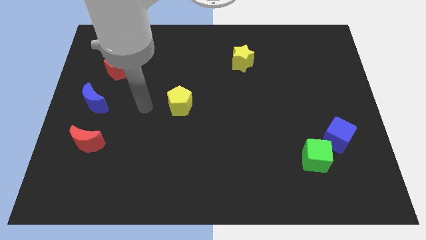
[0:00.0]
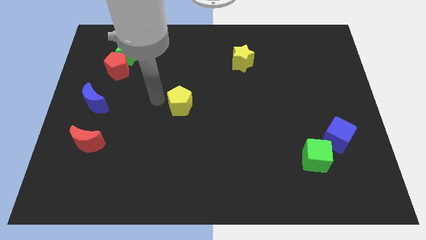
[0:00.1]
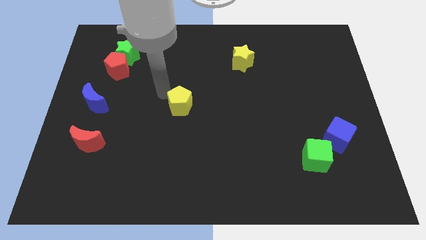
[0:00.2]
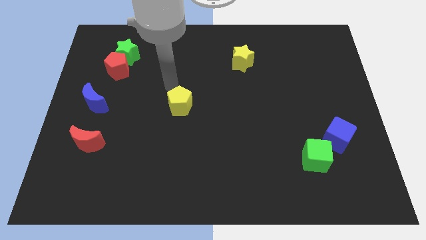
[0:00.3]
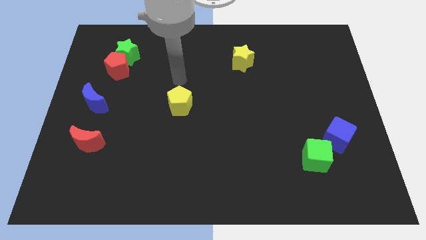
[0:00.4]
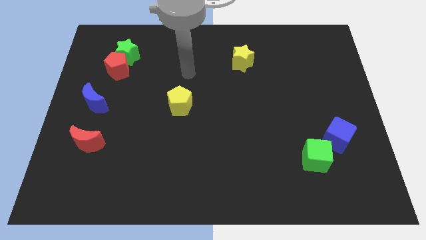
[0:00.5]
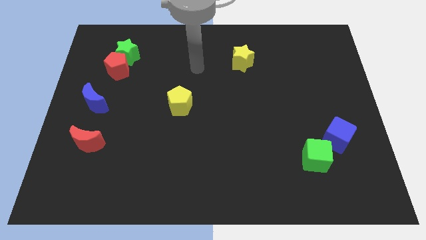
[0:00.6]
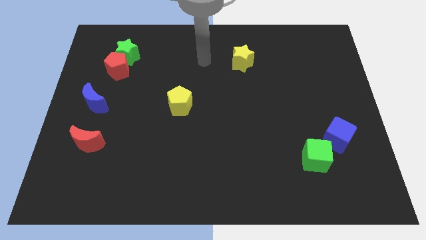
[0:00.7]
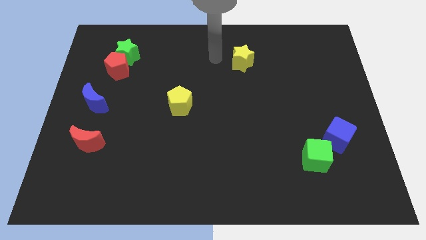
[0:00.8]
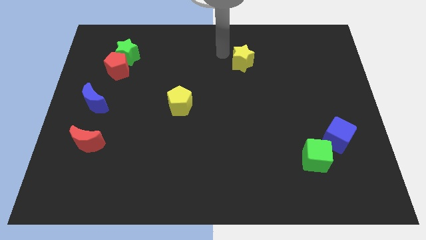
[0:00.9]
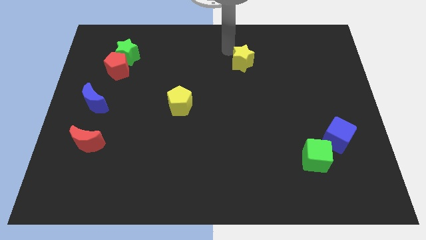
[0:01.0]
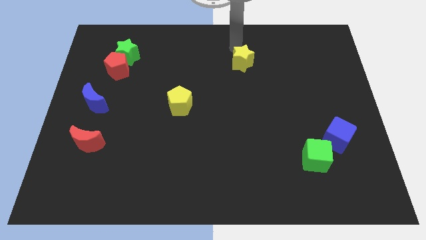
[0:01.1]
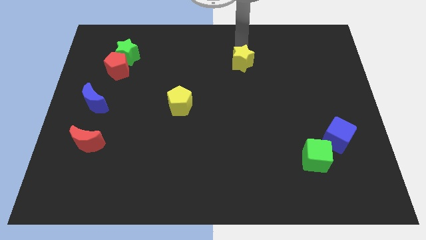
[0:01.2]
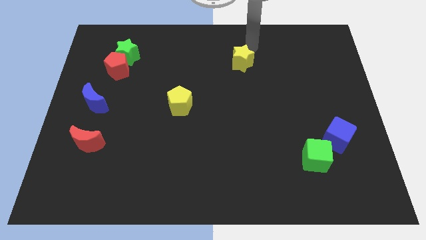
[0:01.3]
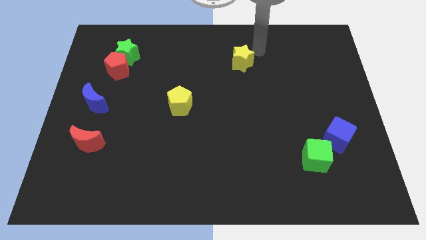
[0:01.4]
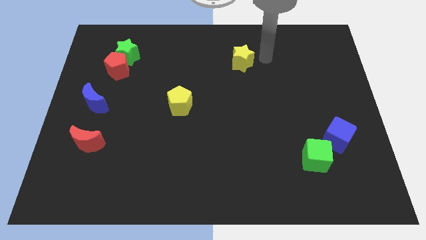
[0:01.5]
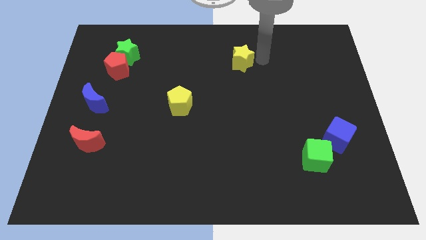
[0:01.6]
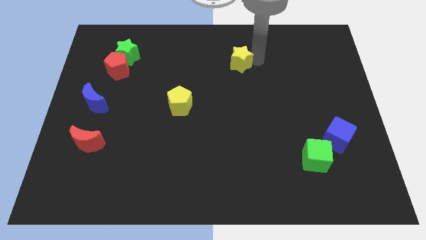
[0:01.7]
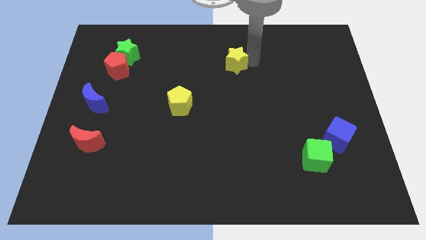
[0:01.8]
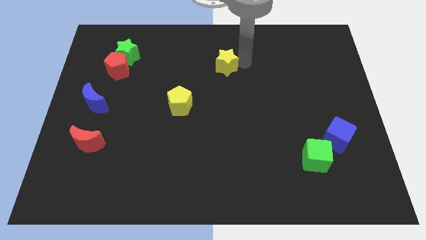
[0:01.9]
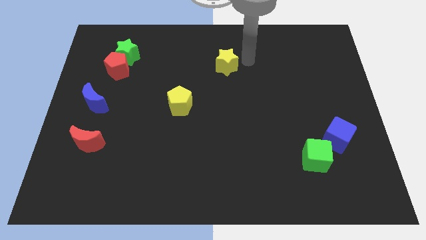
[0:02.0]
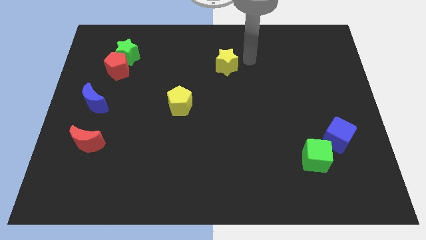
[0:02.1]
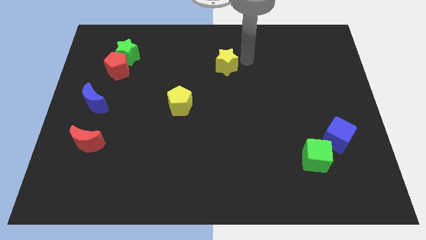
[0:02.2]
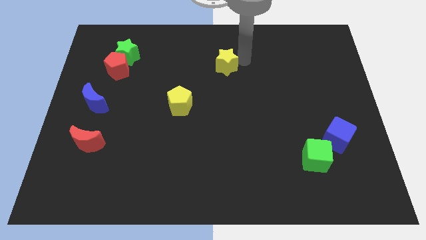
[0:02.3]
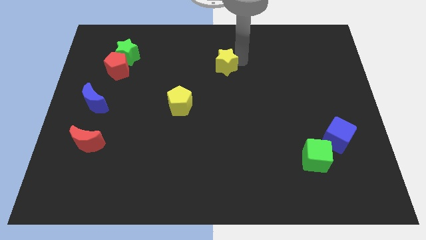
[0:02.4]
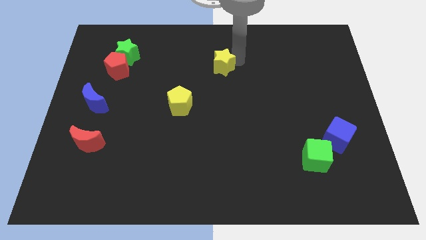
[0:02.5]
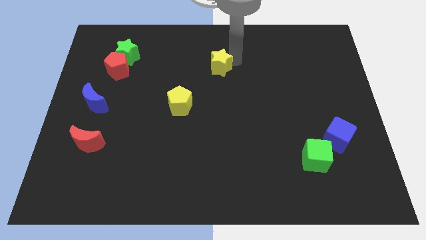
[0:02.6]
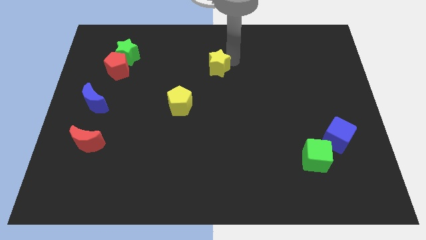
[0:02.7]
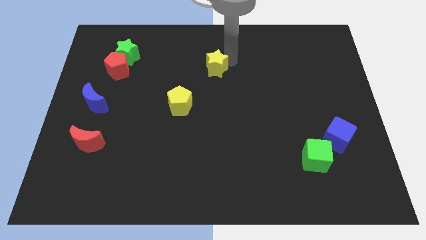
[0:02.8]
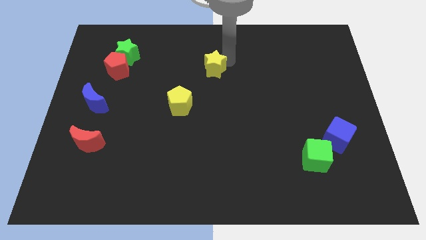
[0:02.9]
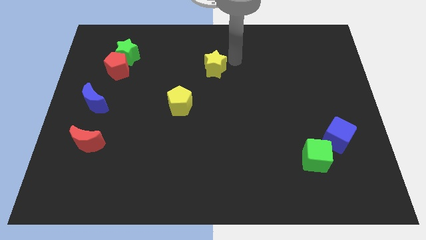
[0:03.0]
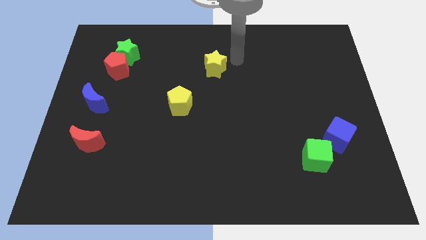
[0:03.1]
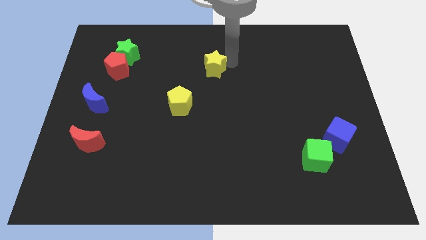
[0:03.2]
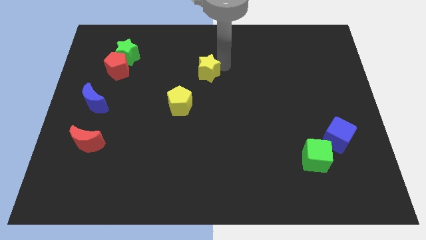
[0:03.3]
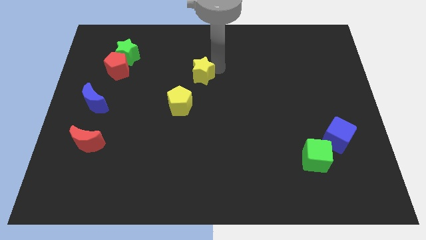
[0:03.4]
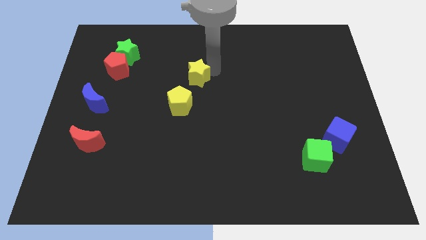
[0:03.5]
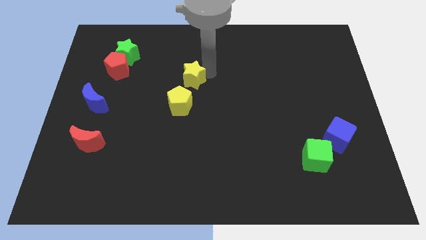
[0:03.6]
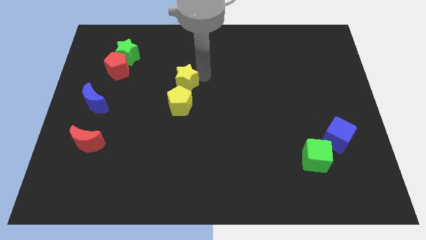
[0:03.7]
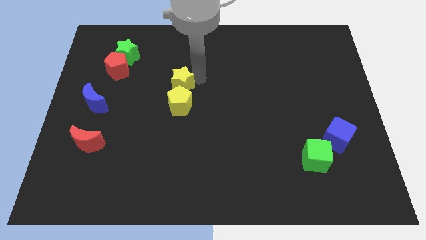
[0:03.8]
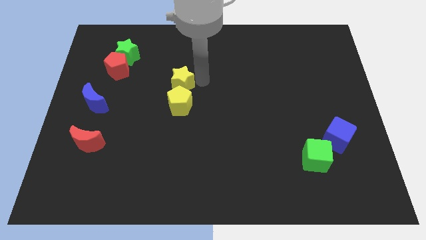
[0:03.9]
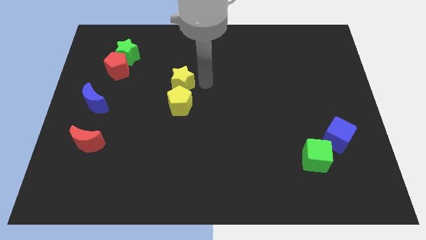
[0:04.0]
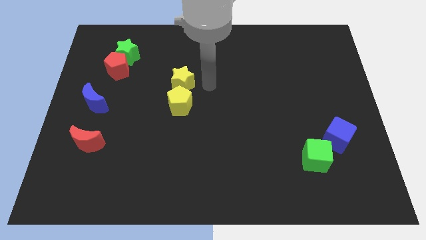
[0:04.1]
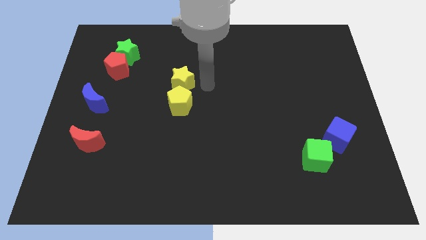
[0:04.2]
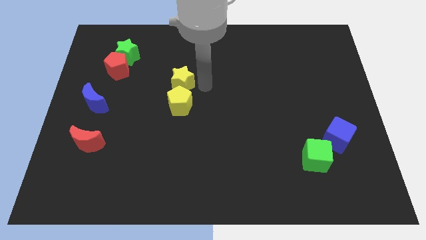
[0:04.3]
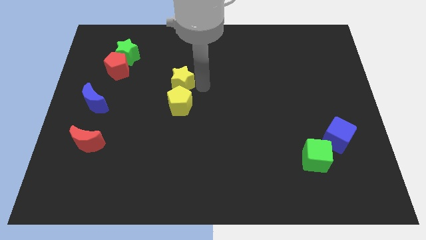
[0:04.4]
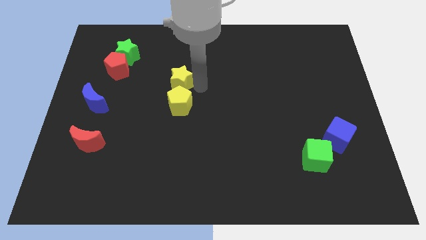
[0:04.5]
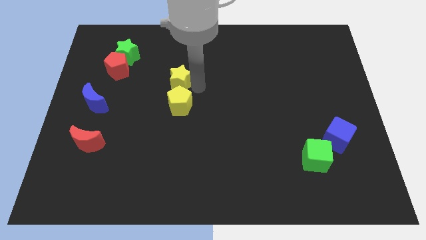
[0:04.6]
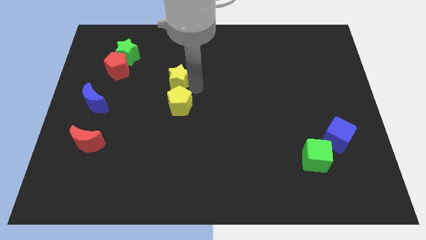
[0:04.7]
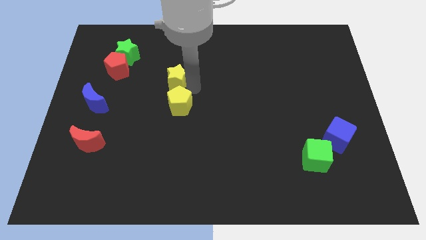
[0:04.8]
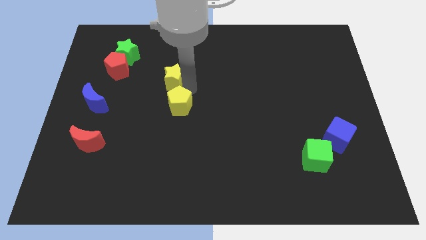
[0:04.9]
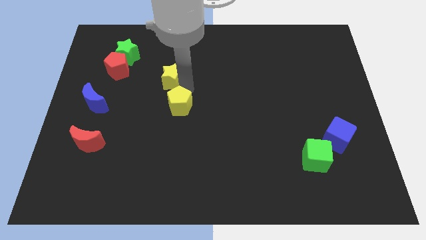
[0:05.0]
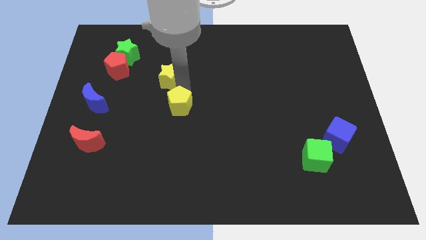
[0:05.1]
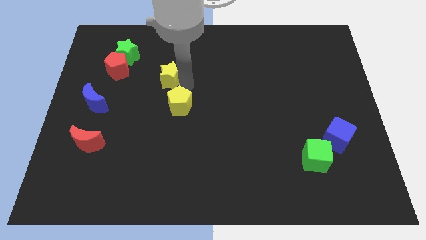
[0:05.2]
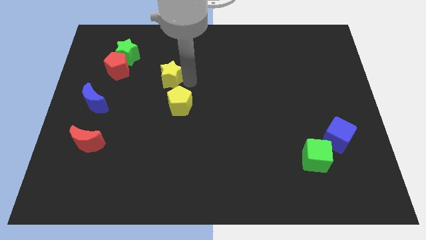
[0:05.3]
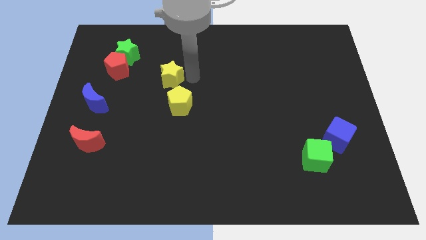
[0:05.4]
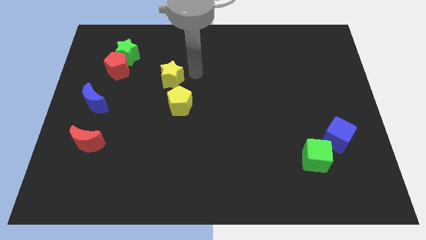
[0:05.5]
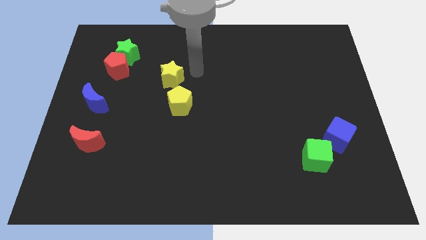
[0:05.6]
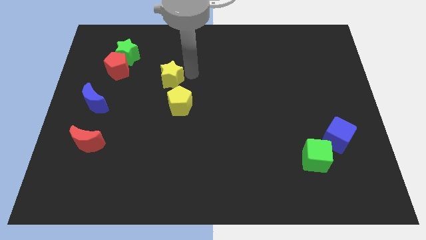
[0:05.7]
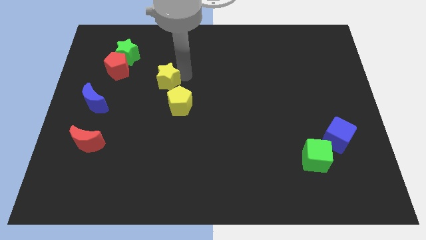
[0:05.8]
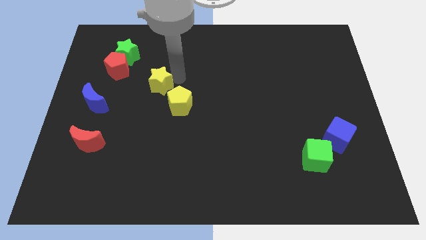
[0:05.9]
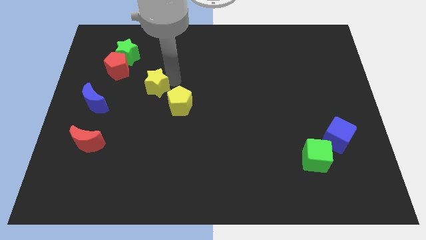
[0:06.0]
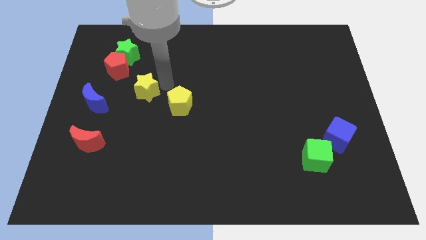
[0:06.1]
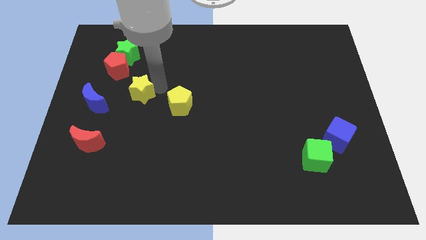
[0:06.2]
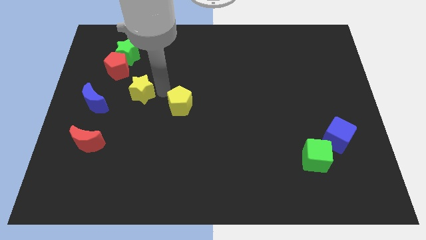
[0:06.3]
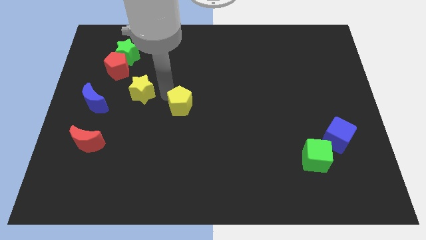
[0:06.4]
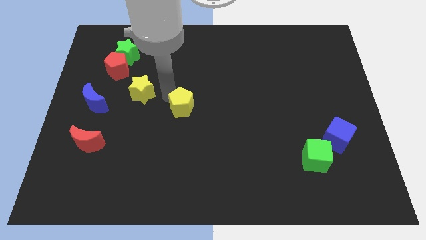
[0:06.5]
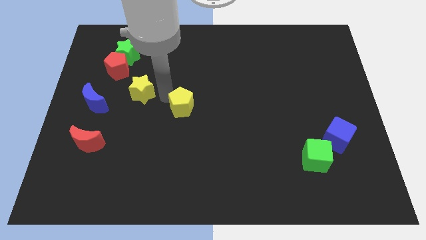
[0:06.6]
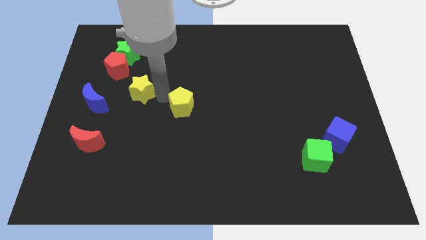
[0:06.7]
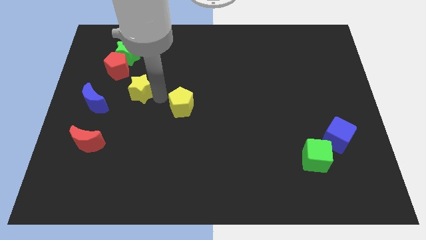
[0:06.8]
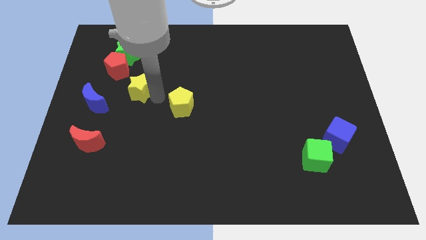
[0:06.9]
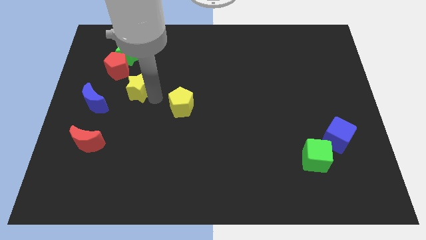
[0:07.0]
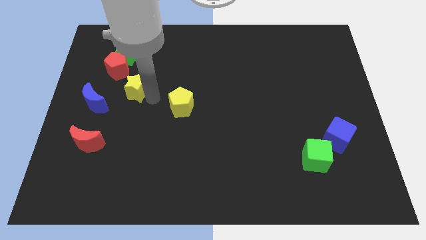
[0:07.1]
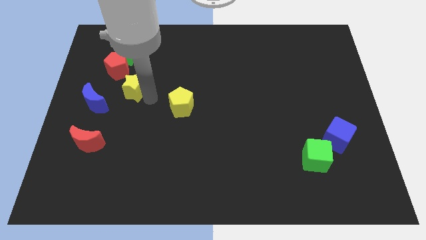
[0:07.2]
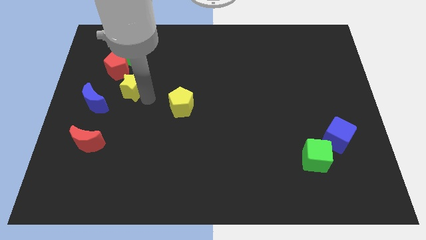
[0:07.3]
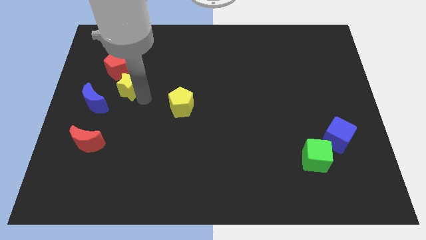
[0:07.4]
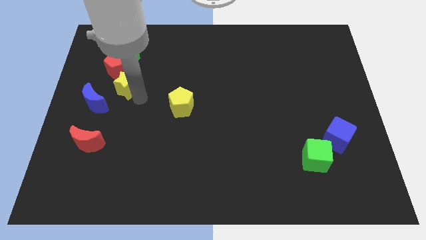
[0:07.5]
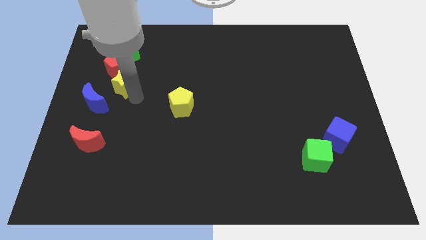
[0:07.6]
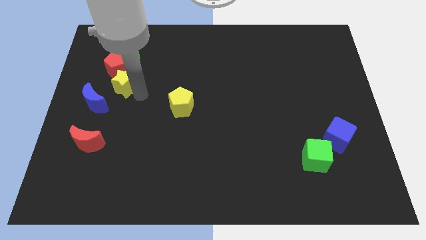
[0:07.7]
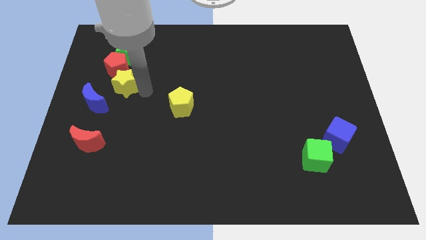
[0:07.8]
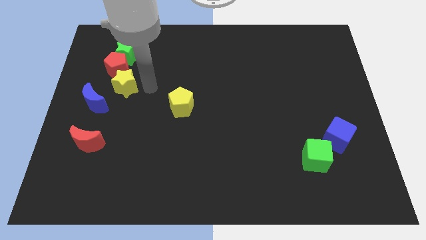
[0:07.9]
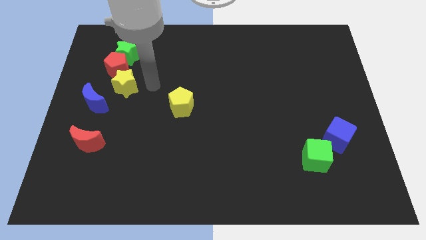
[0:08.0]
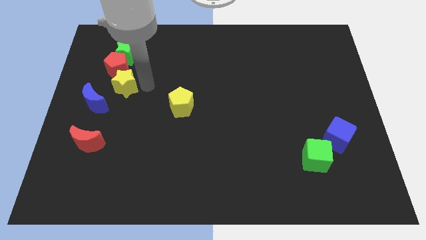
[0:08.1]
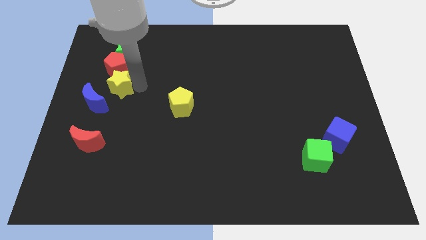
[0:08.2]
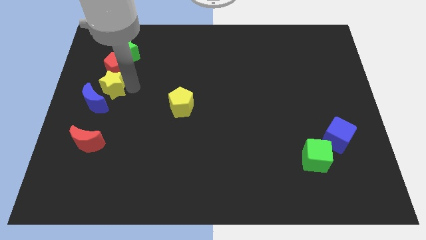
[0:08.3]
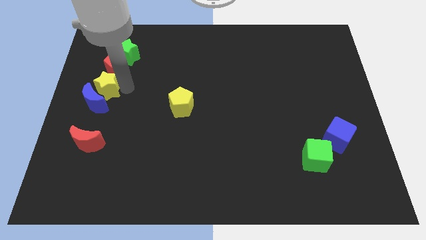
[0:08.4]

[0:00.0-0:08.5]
move the yellow star to the left side
